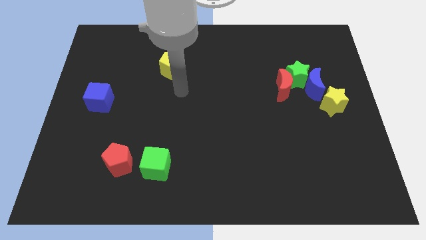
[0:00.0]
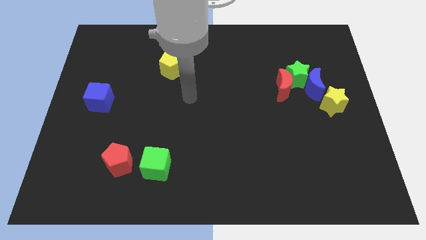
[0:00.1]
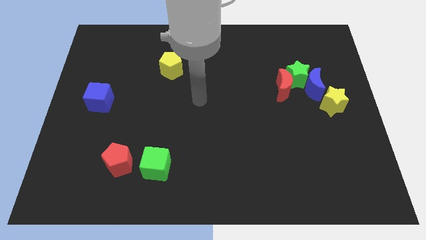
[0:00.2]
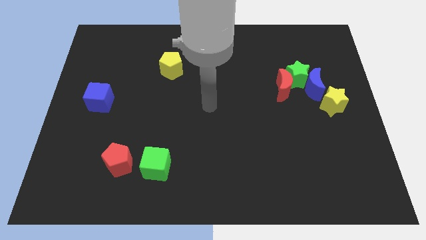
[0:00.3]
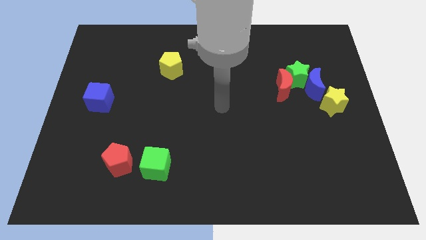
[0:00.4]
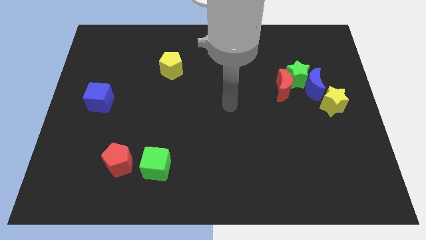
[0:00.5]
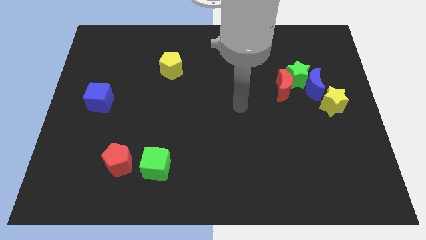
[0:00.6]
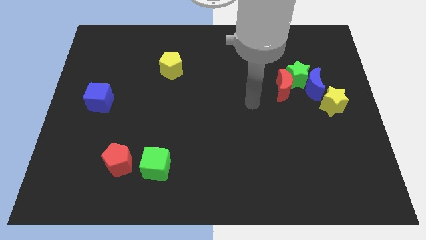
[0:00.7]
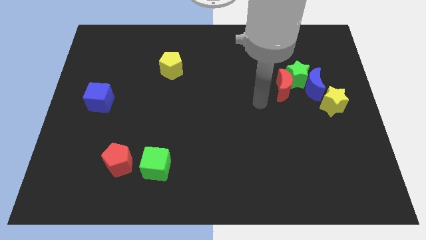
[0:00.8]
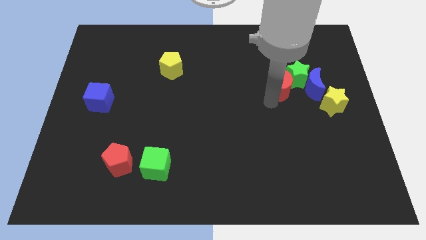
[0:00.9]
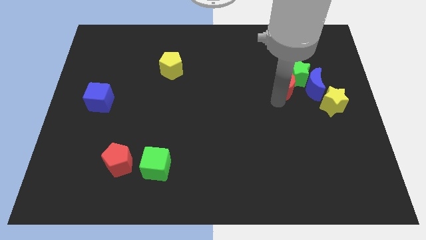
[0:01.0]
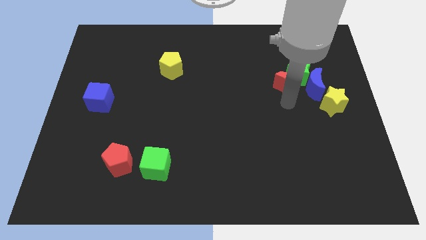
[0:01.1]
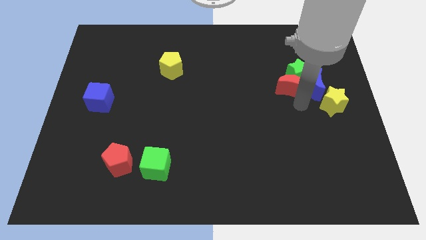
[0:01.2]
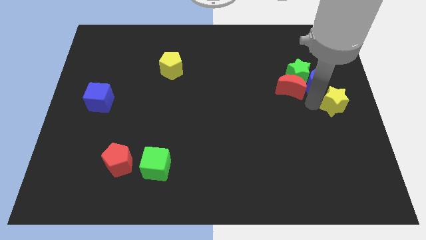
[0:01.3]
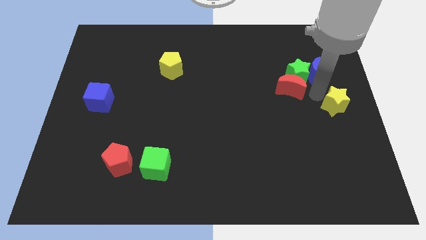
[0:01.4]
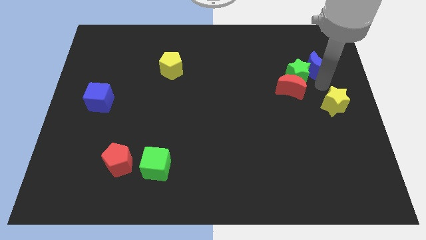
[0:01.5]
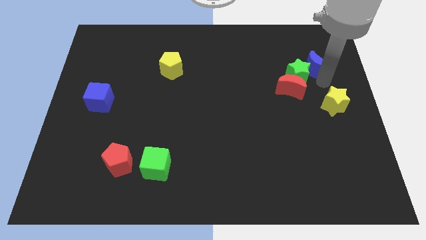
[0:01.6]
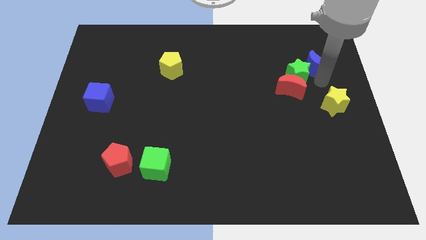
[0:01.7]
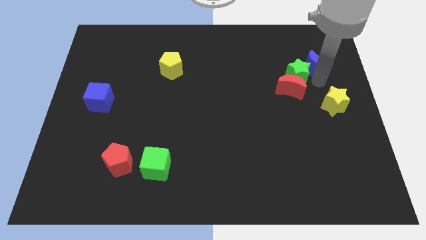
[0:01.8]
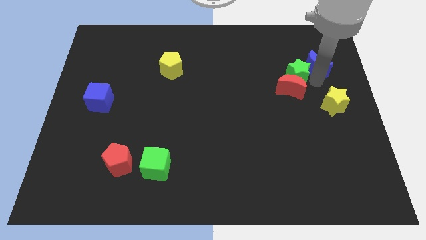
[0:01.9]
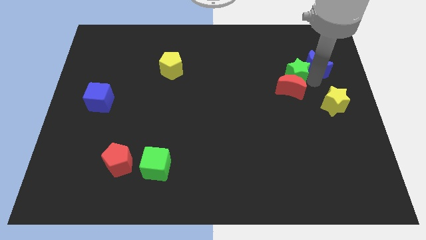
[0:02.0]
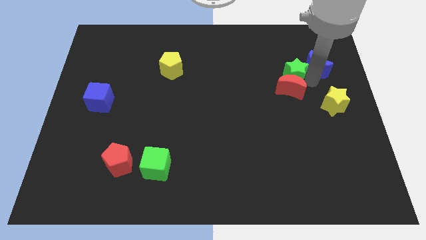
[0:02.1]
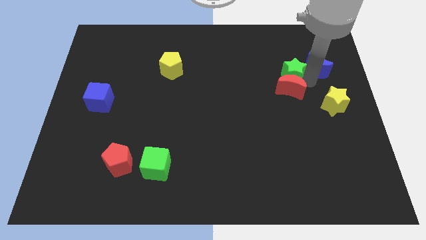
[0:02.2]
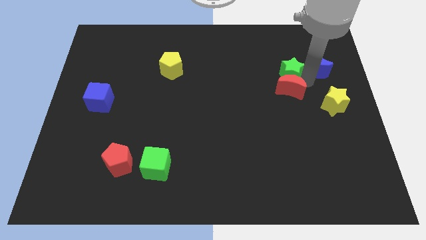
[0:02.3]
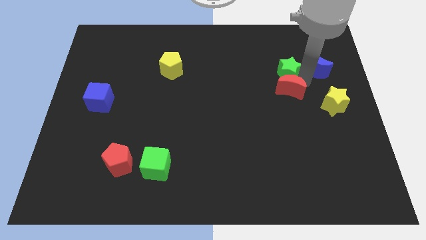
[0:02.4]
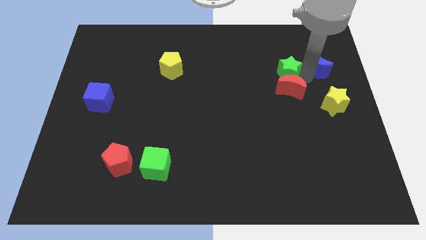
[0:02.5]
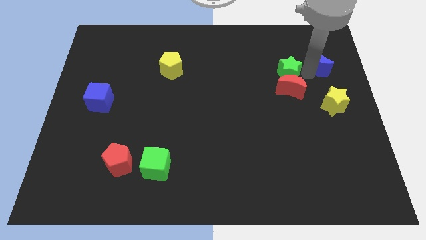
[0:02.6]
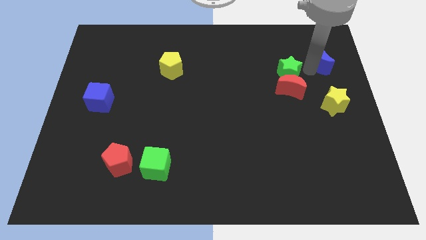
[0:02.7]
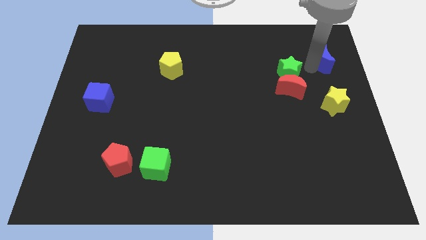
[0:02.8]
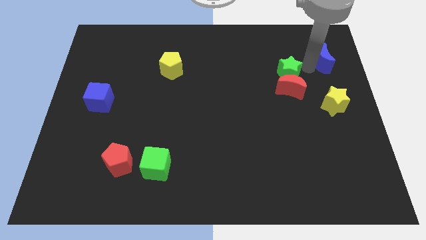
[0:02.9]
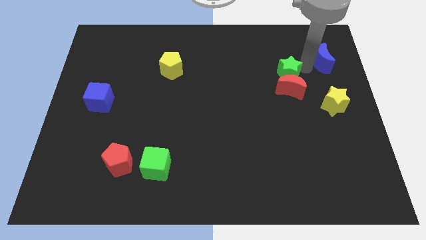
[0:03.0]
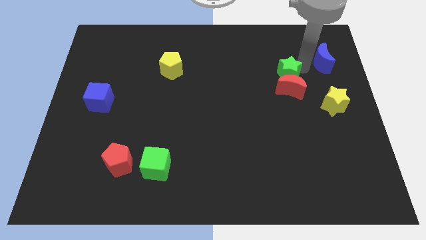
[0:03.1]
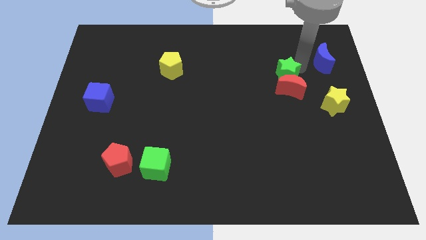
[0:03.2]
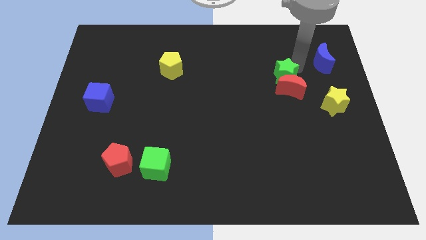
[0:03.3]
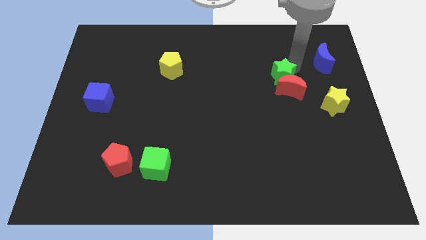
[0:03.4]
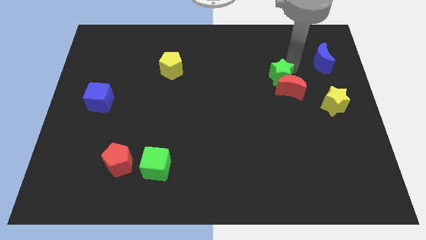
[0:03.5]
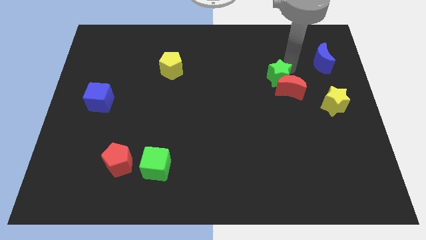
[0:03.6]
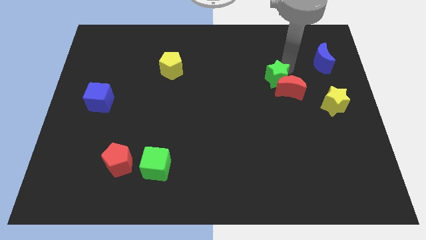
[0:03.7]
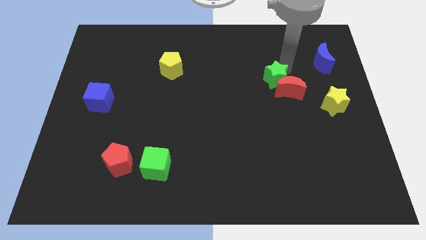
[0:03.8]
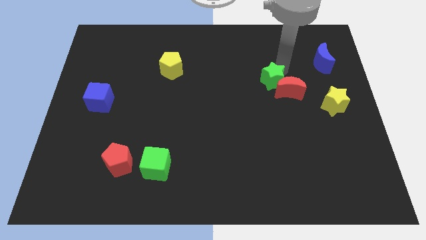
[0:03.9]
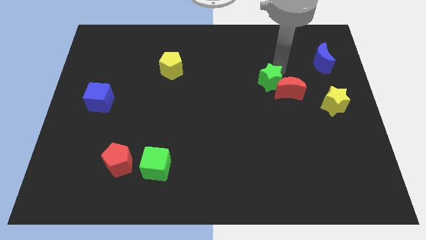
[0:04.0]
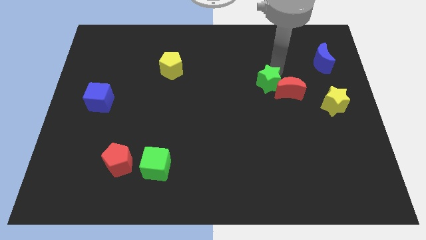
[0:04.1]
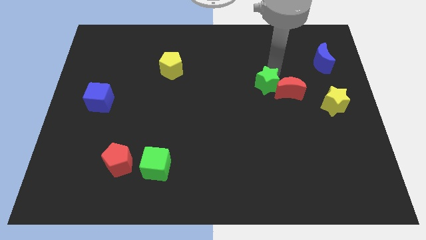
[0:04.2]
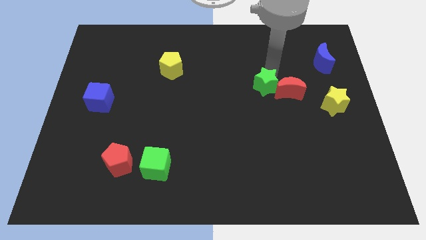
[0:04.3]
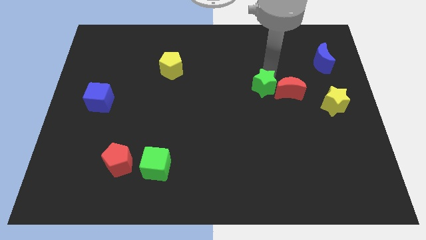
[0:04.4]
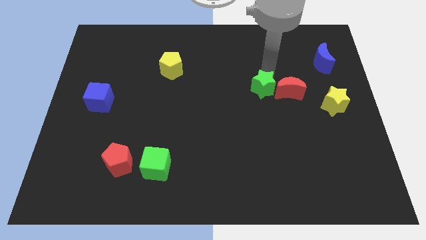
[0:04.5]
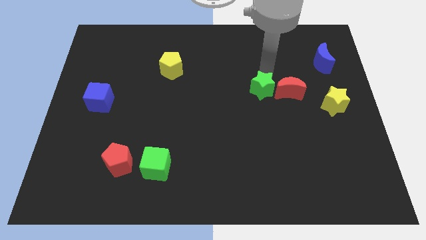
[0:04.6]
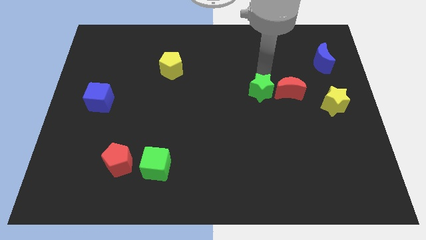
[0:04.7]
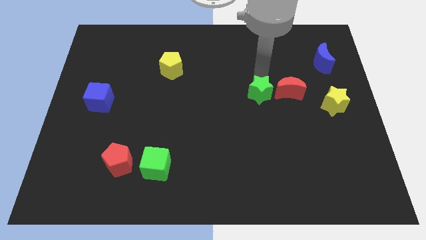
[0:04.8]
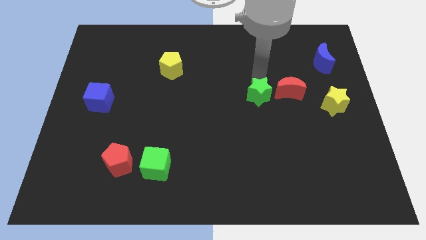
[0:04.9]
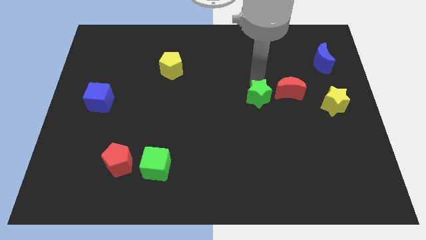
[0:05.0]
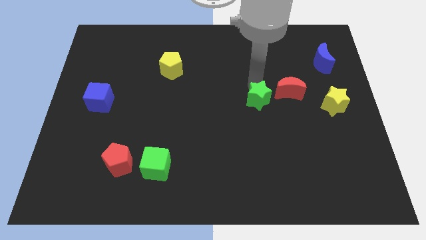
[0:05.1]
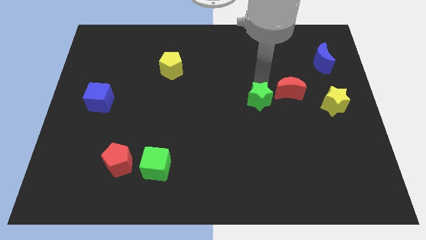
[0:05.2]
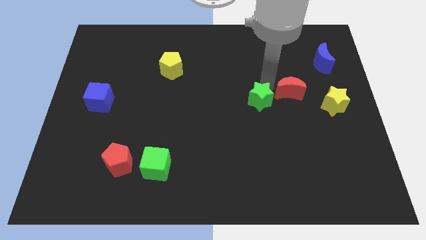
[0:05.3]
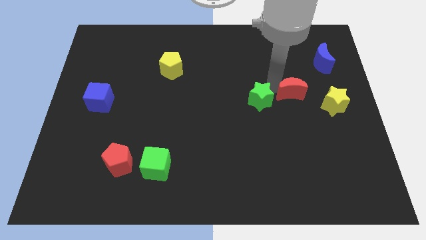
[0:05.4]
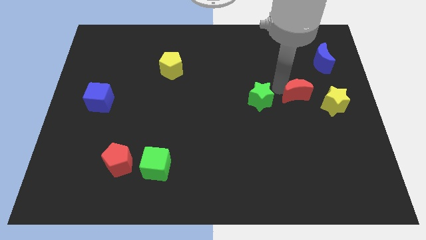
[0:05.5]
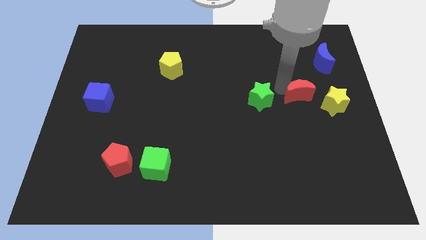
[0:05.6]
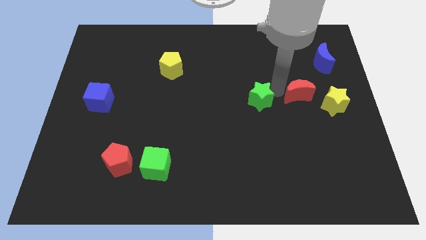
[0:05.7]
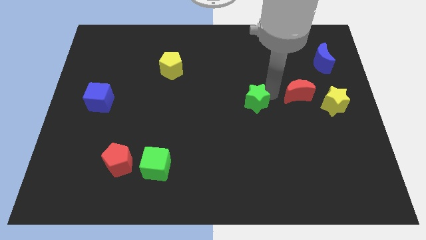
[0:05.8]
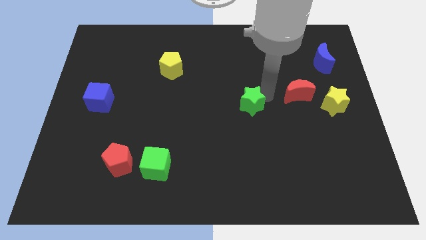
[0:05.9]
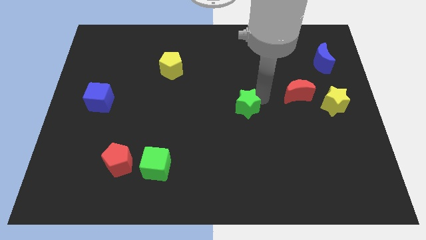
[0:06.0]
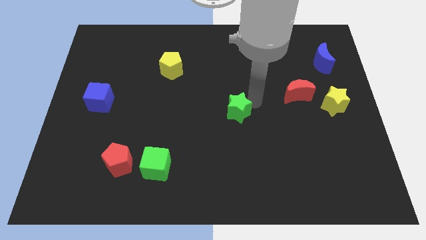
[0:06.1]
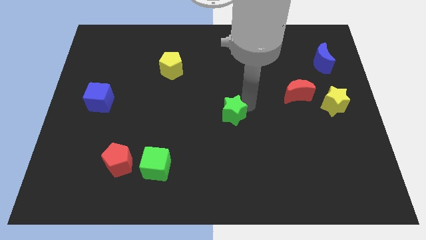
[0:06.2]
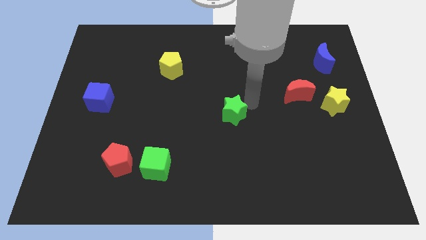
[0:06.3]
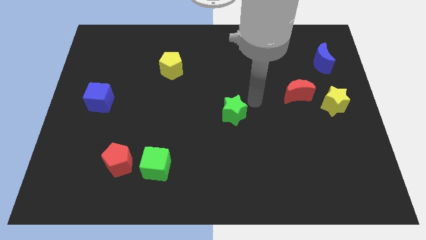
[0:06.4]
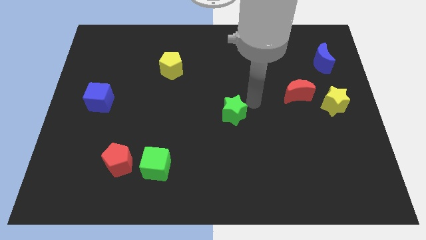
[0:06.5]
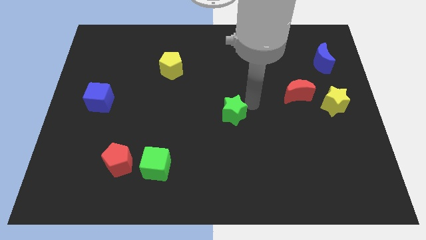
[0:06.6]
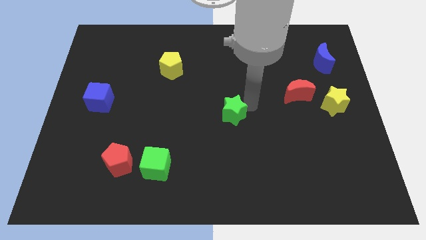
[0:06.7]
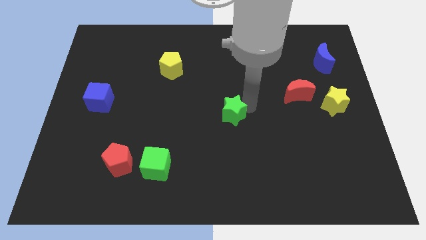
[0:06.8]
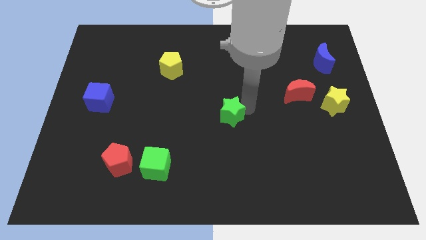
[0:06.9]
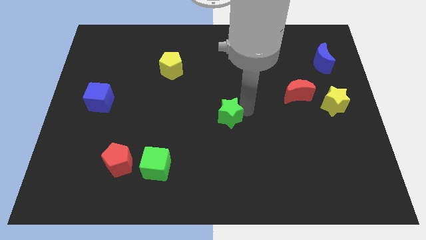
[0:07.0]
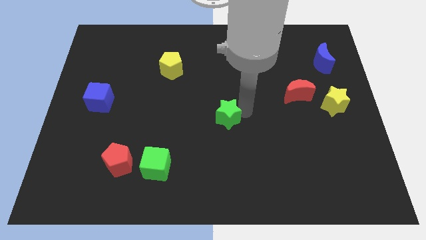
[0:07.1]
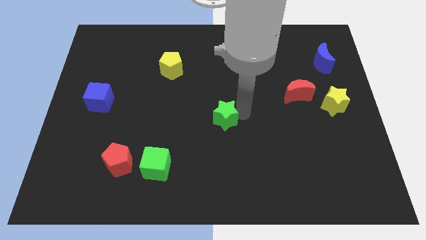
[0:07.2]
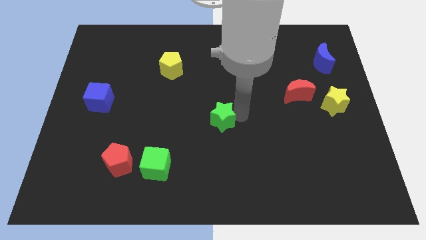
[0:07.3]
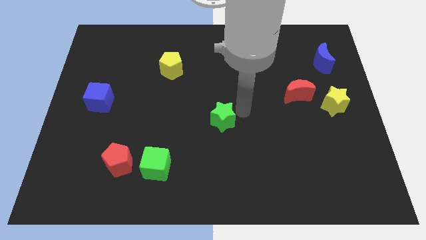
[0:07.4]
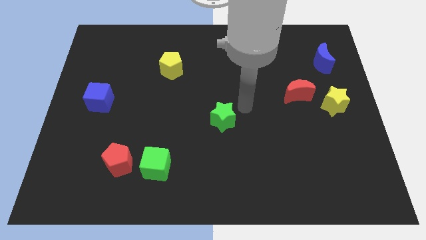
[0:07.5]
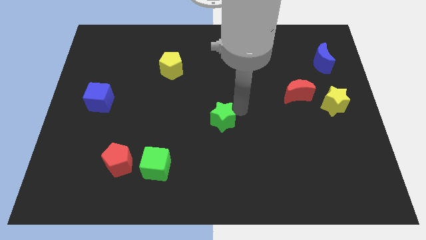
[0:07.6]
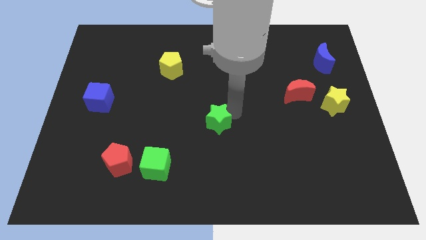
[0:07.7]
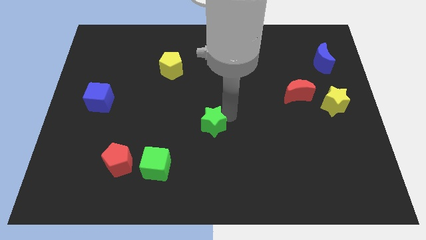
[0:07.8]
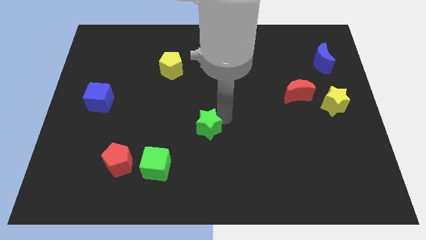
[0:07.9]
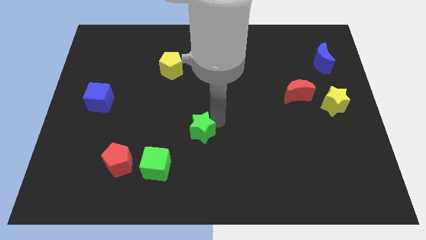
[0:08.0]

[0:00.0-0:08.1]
put the green star diagonally up and to the right of the green cube
